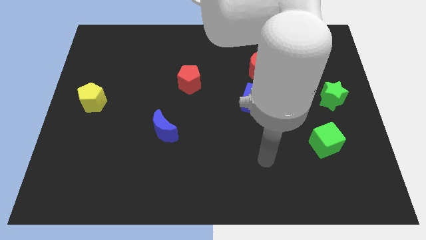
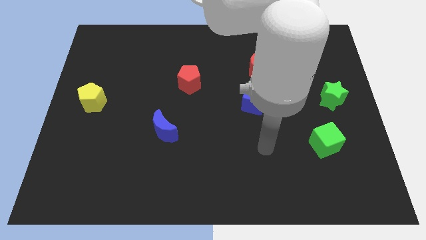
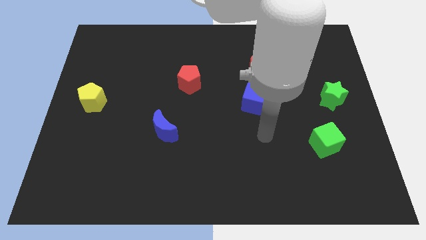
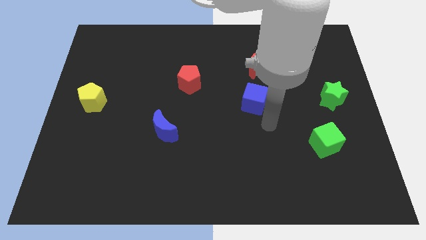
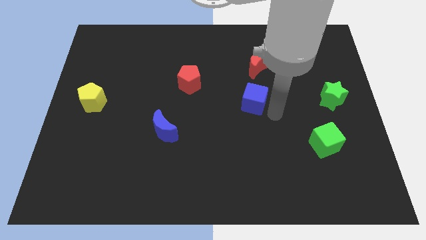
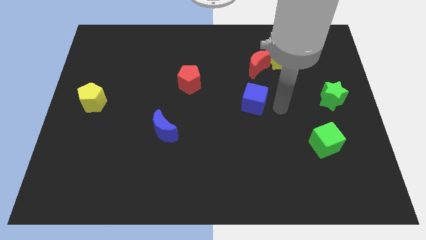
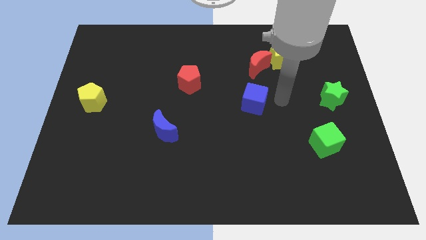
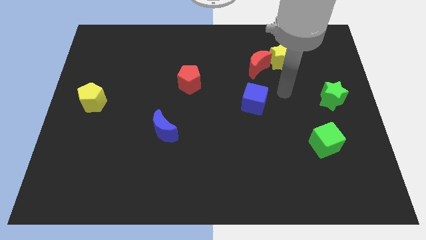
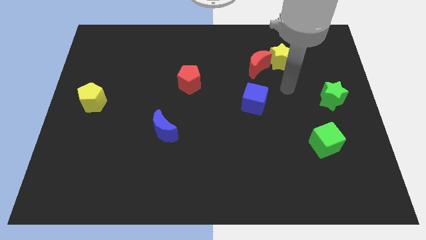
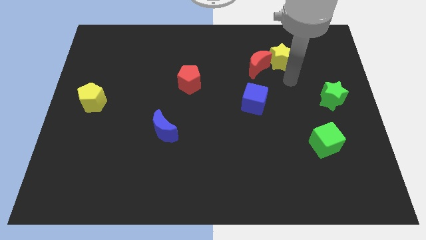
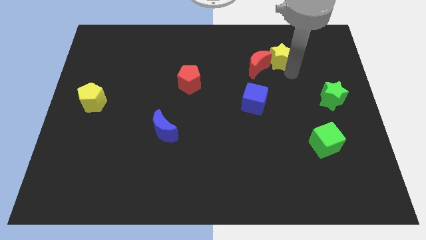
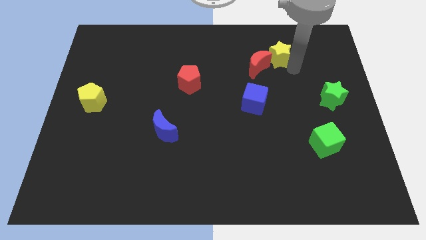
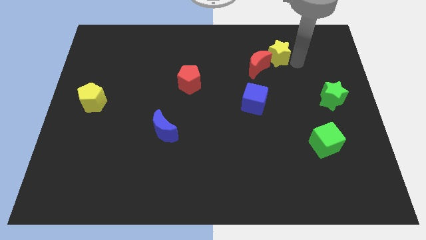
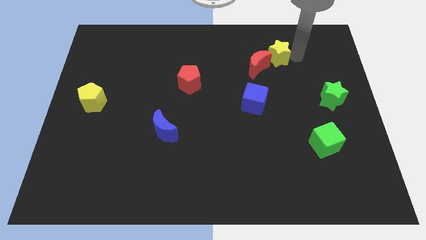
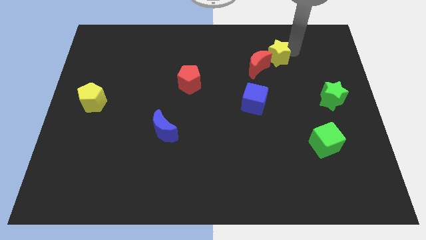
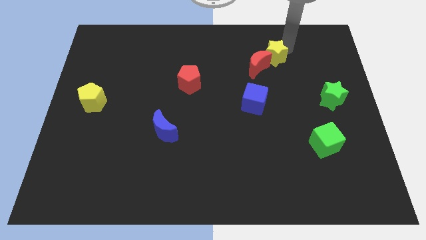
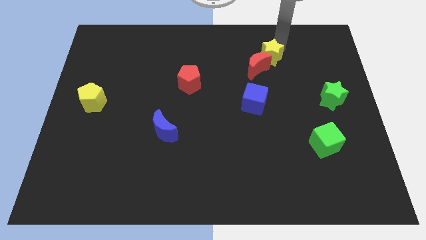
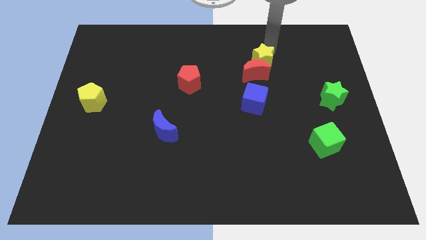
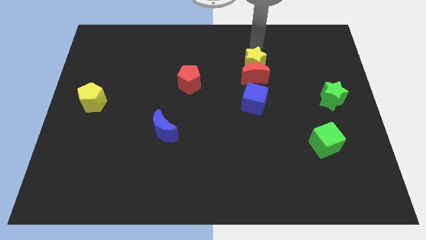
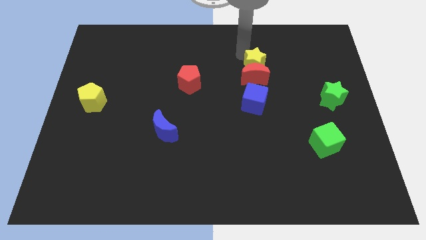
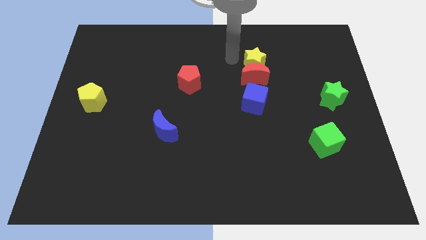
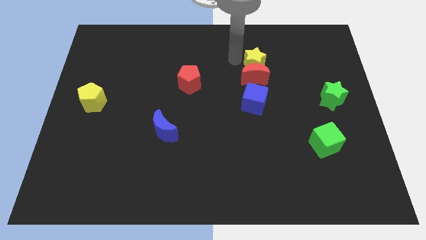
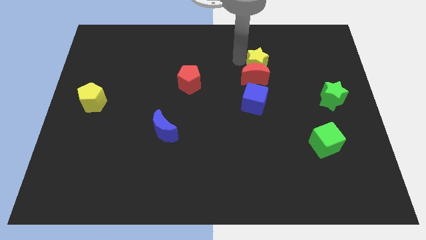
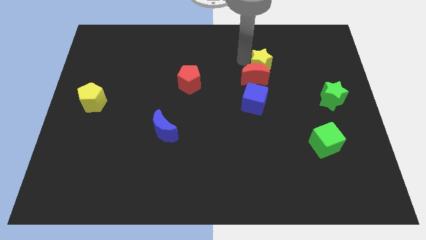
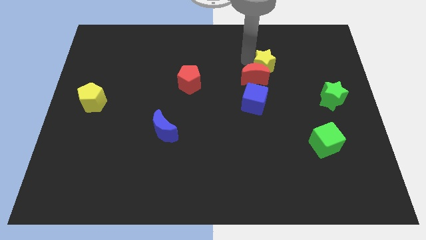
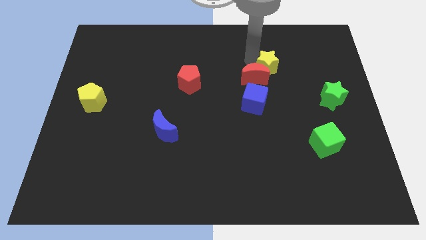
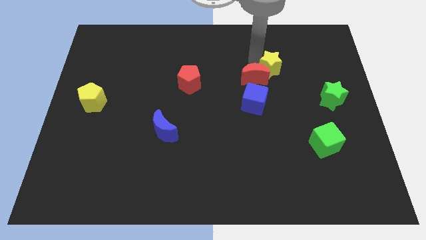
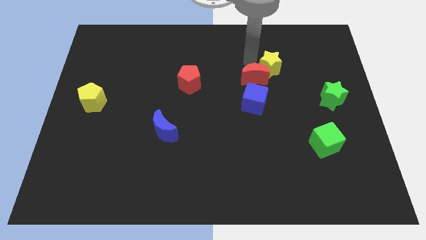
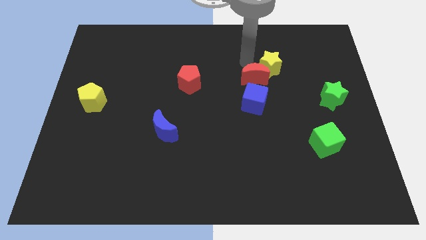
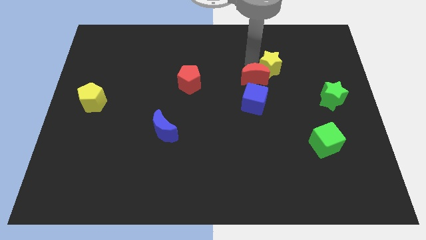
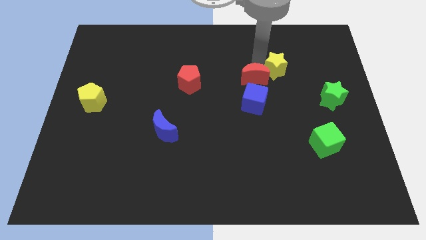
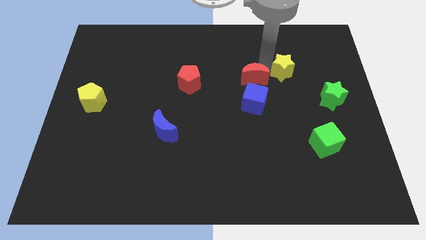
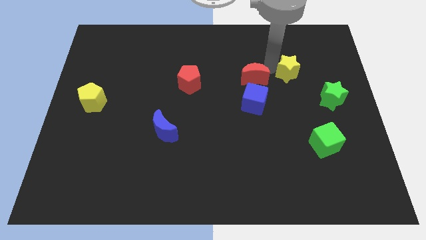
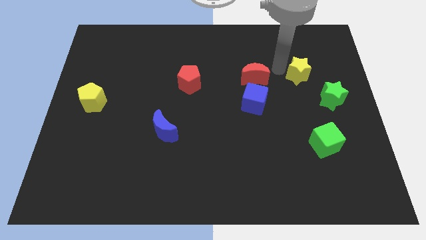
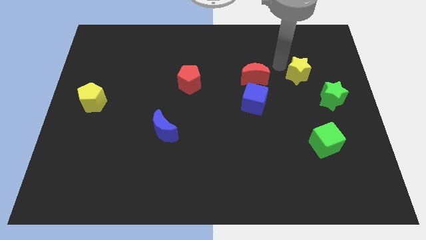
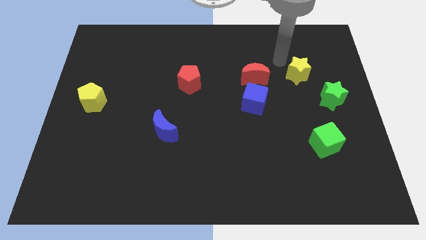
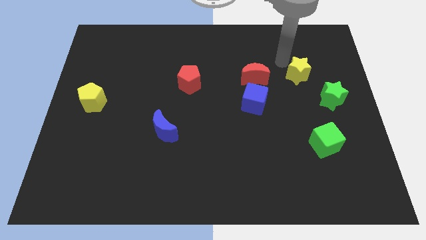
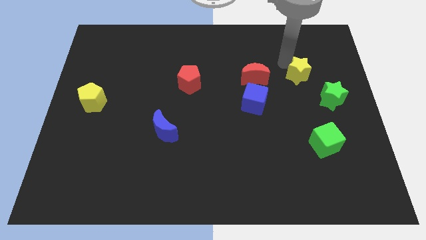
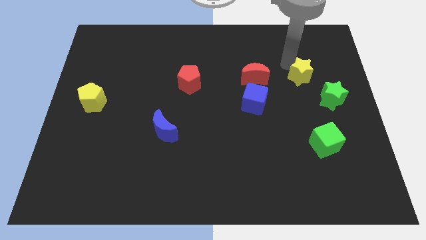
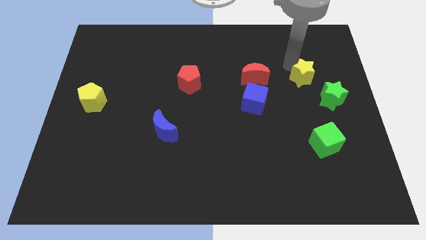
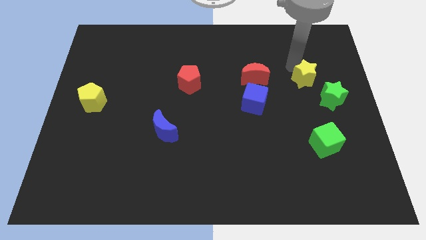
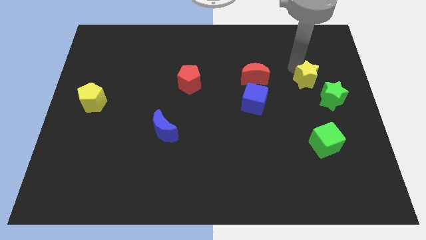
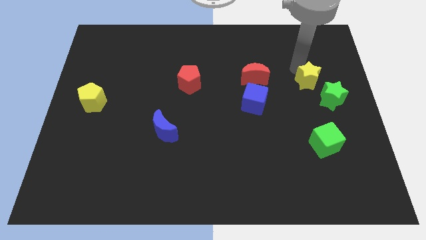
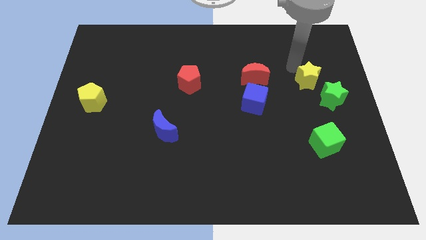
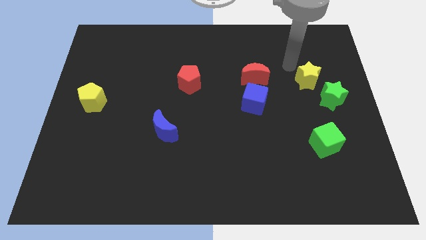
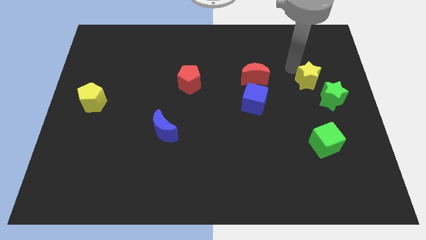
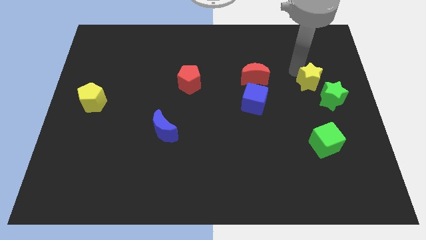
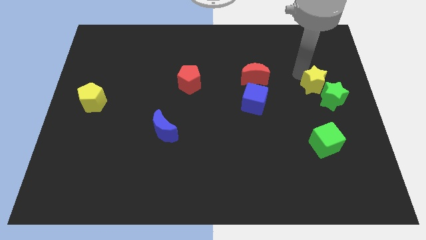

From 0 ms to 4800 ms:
slide the yellow star towards the green star

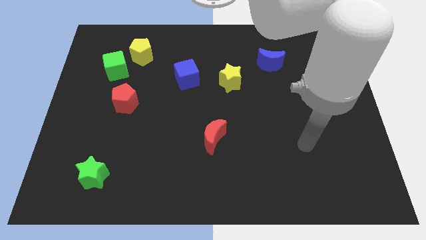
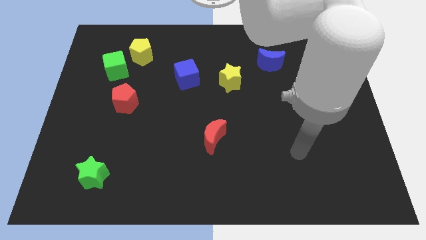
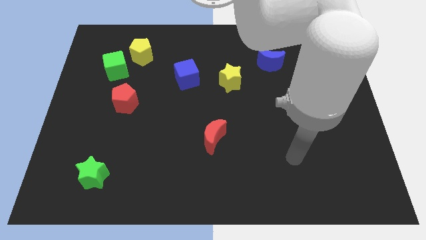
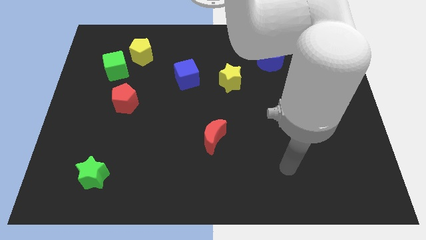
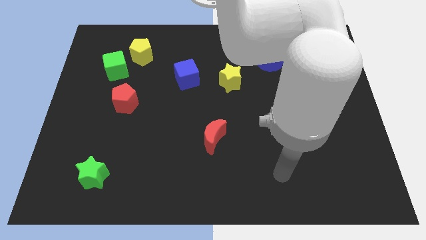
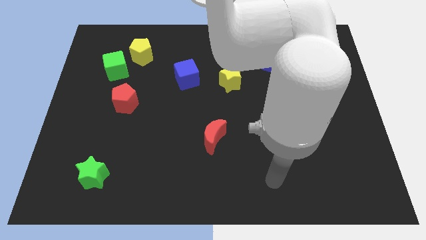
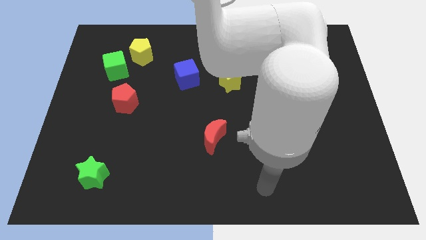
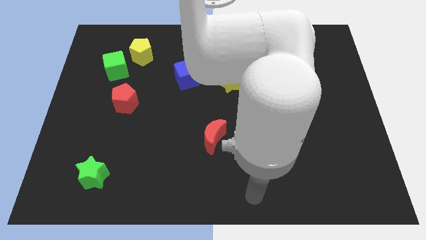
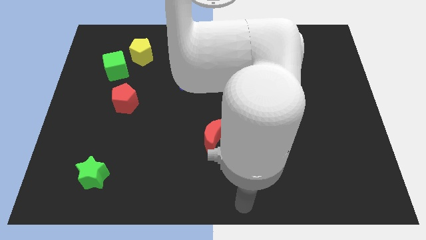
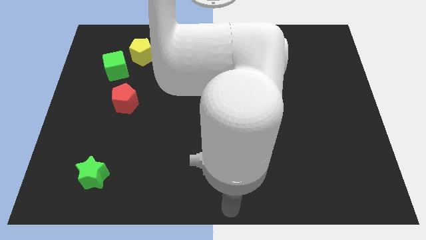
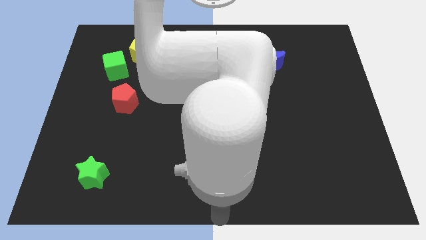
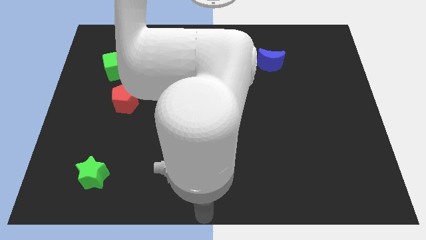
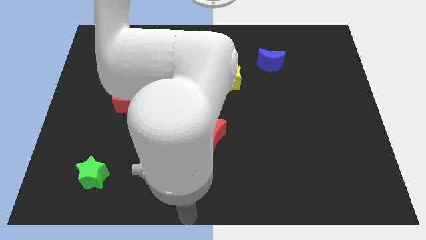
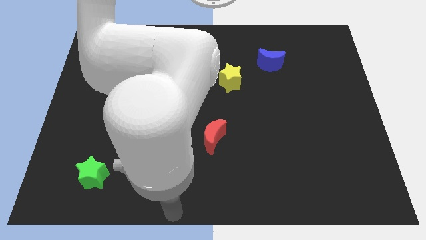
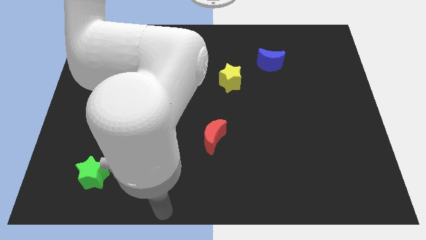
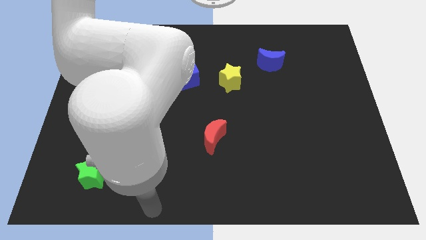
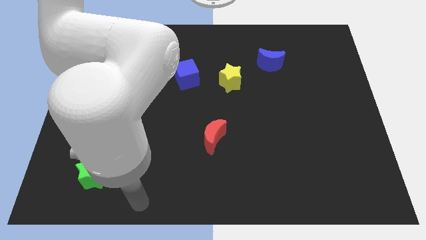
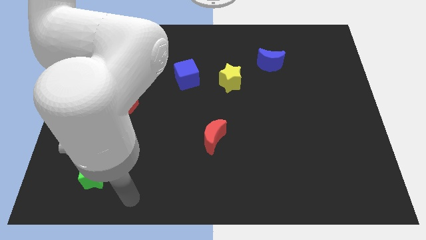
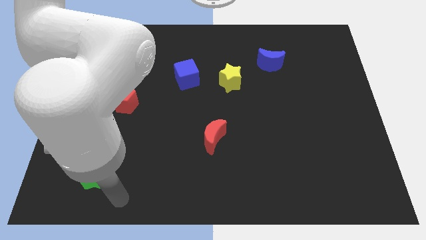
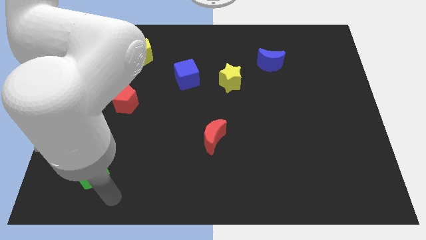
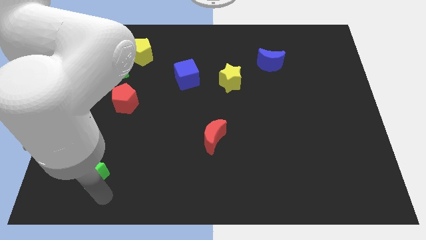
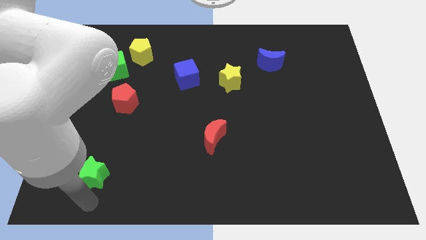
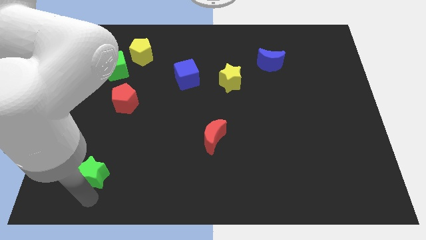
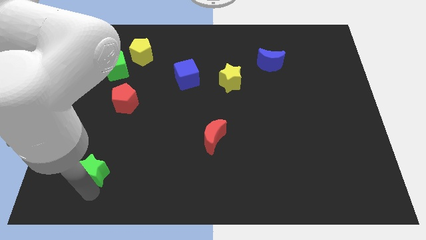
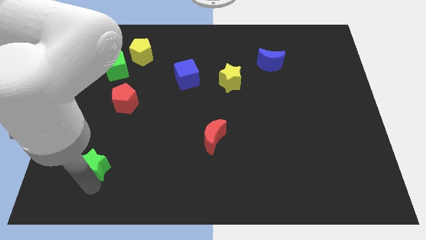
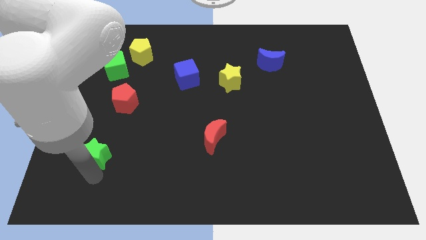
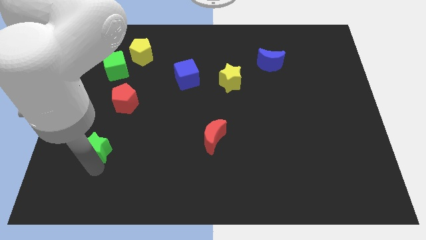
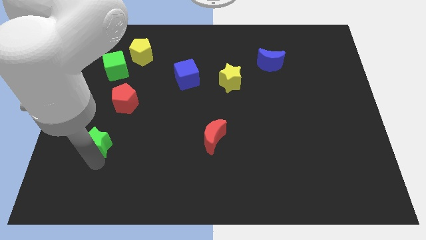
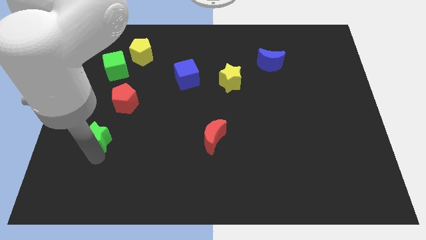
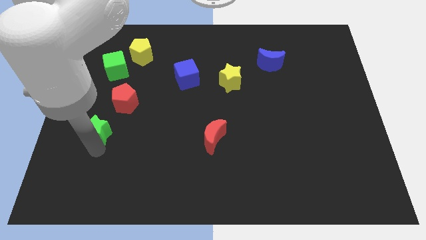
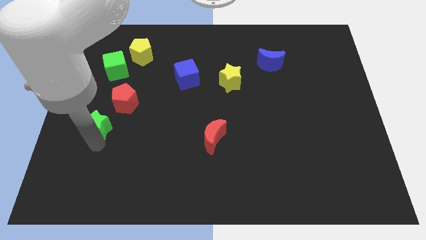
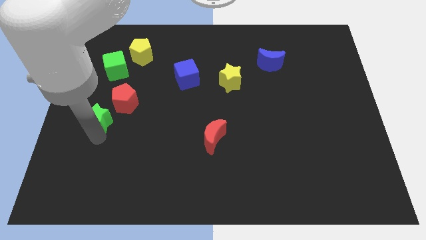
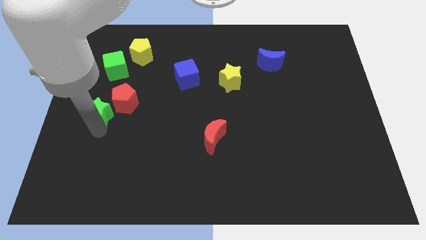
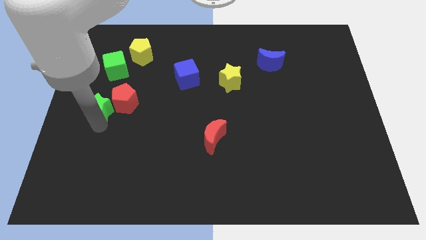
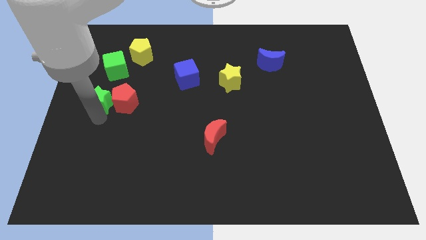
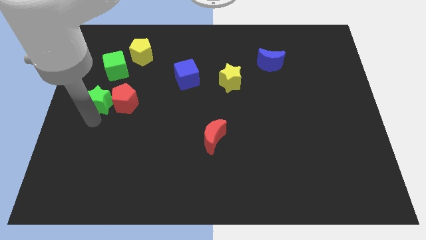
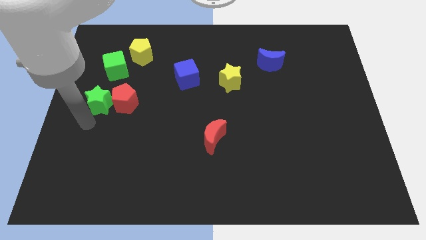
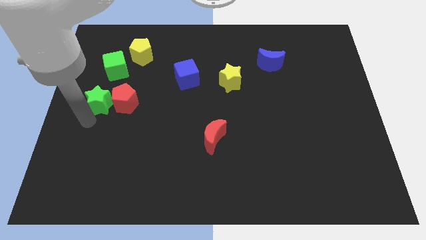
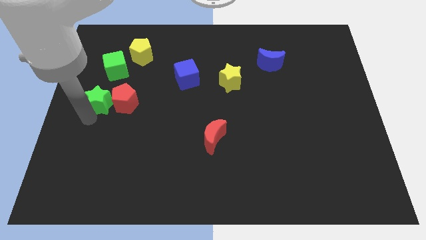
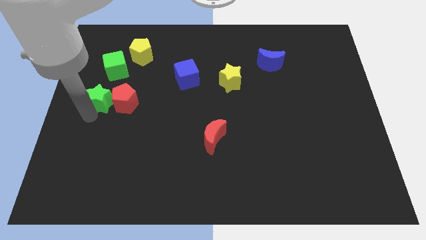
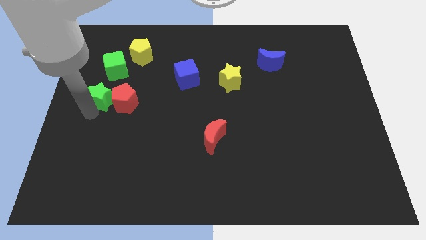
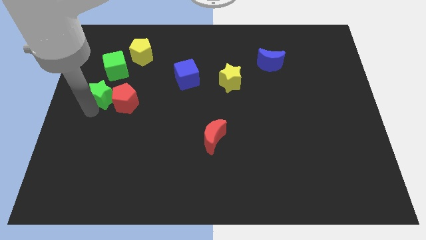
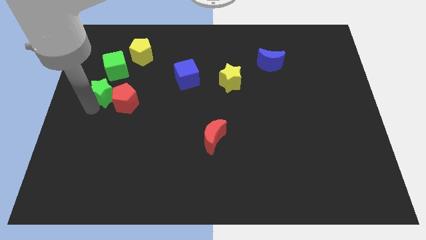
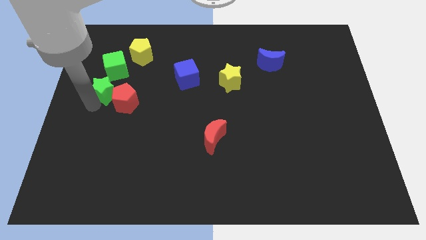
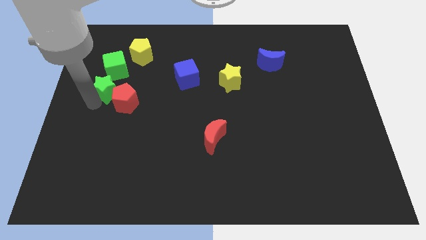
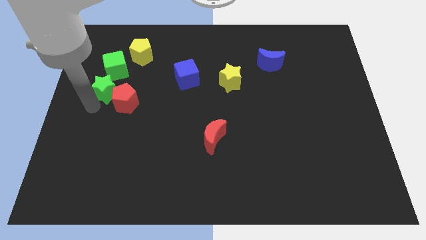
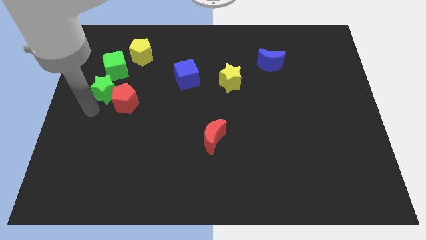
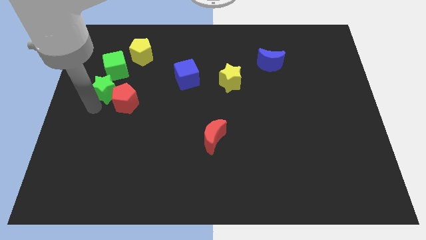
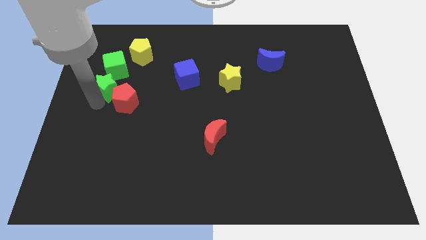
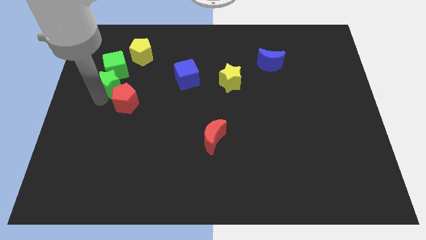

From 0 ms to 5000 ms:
push the green star to the green cube
